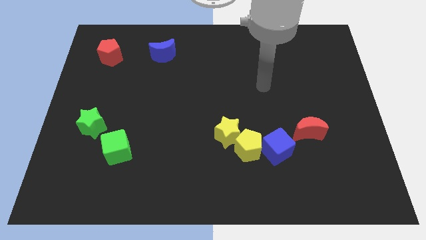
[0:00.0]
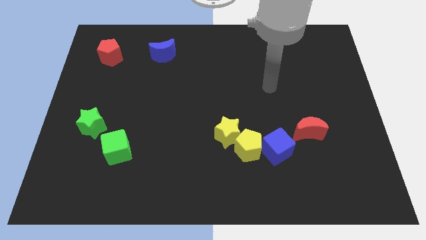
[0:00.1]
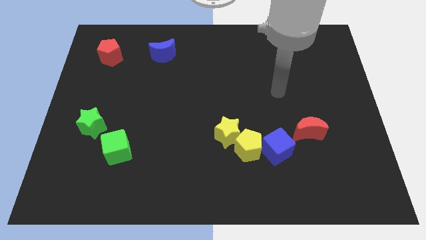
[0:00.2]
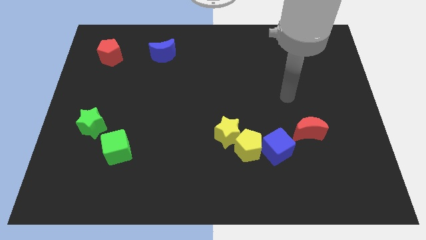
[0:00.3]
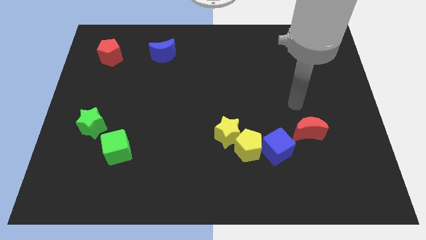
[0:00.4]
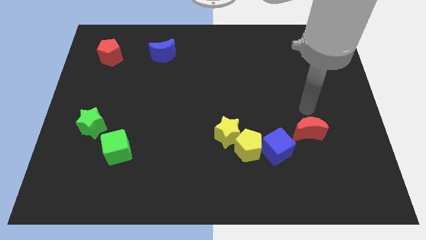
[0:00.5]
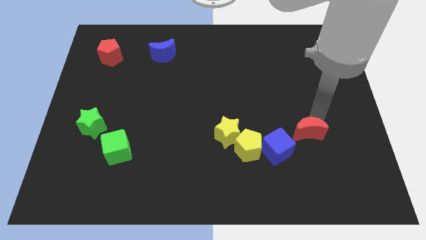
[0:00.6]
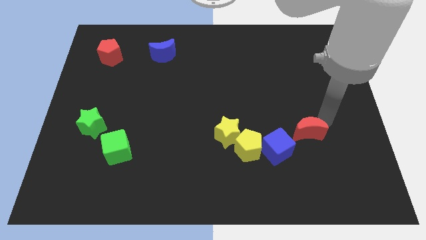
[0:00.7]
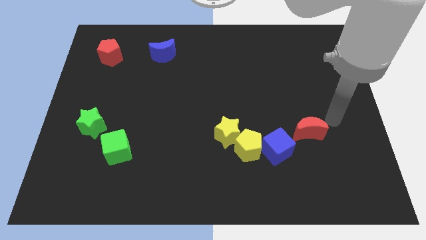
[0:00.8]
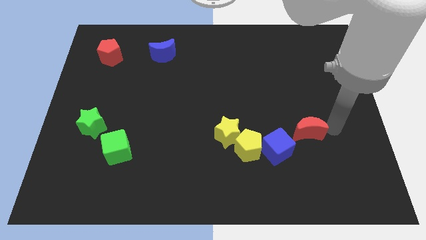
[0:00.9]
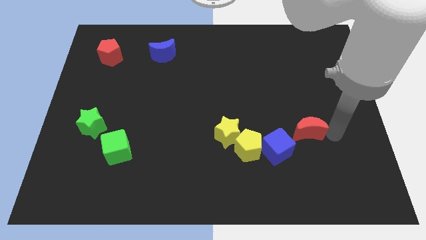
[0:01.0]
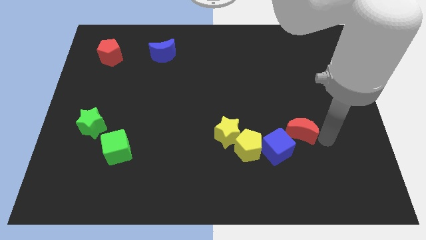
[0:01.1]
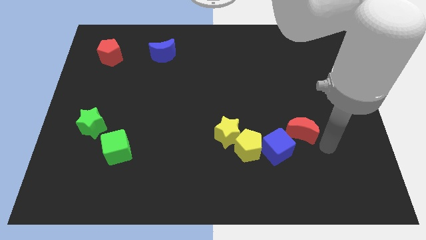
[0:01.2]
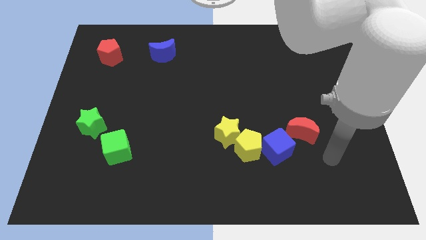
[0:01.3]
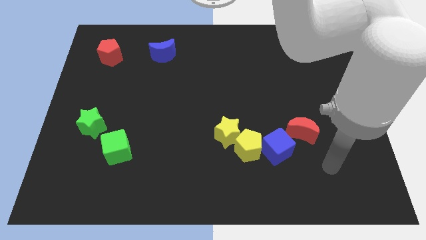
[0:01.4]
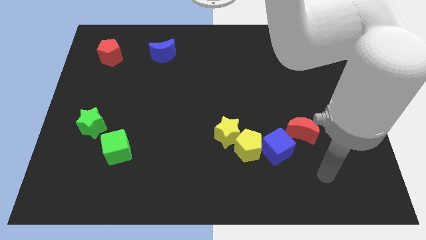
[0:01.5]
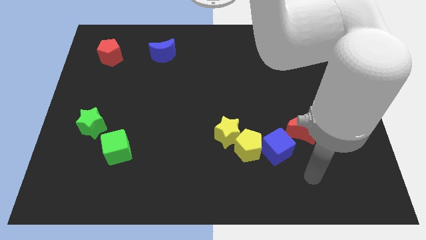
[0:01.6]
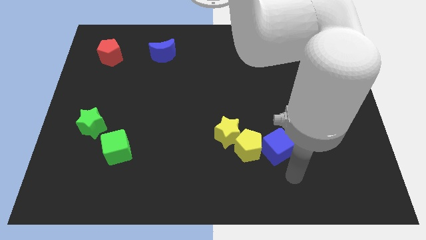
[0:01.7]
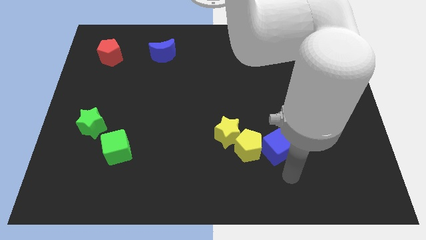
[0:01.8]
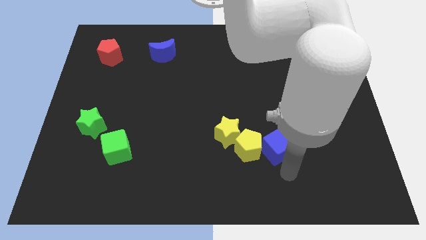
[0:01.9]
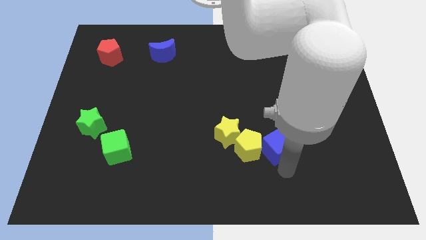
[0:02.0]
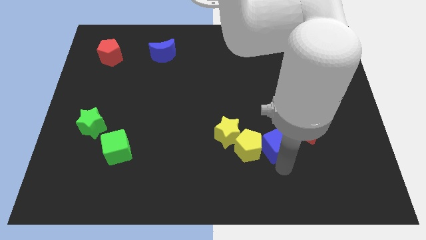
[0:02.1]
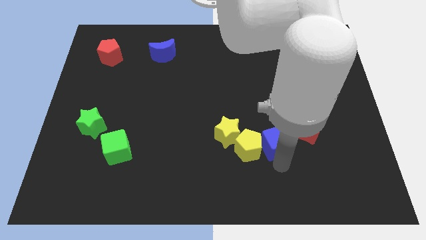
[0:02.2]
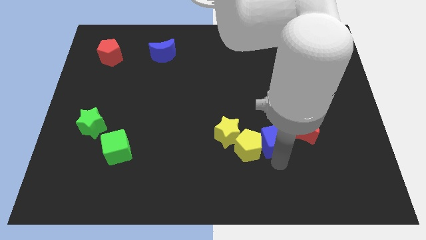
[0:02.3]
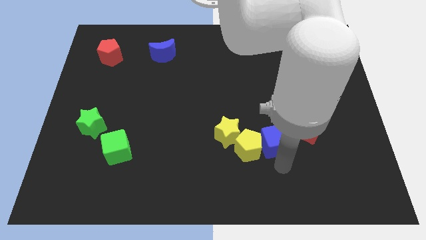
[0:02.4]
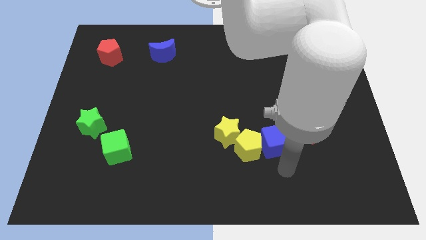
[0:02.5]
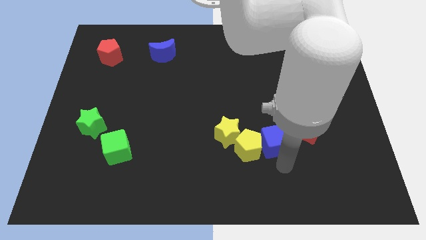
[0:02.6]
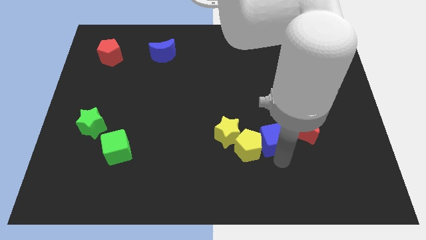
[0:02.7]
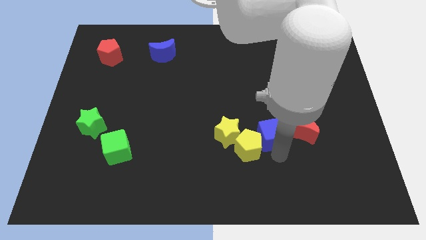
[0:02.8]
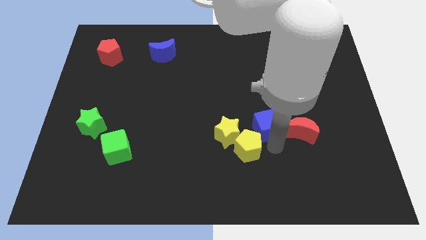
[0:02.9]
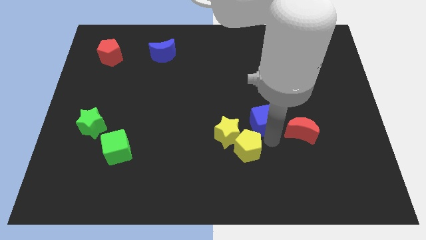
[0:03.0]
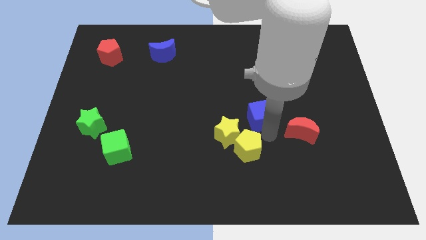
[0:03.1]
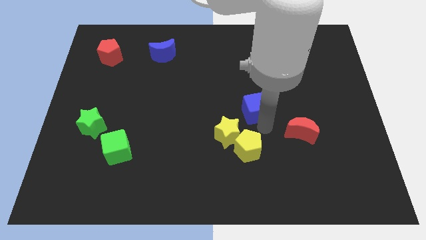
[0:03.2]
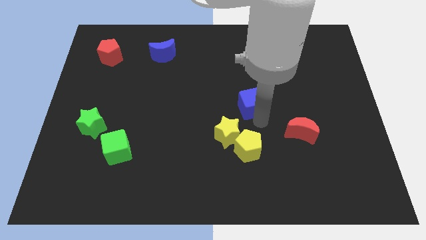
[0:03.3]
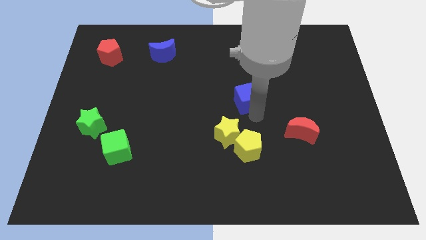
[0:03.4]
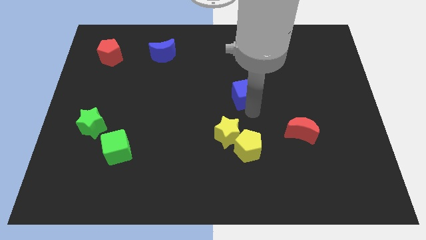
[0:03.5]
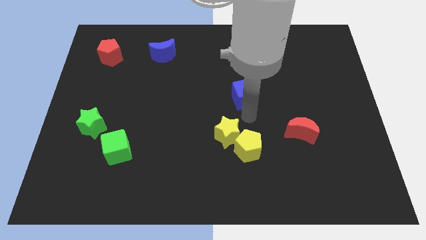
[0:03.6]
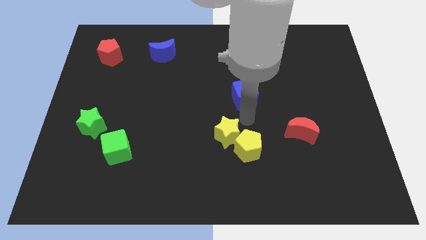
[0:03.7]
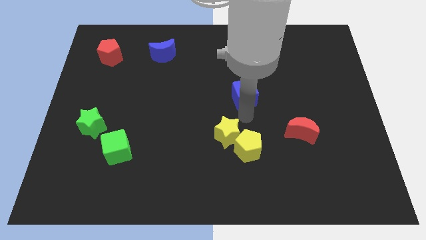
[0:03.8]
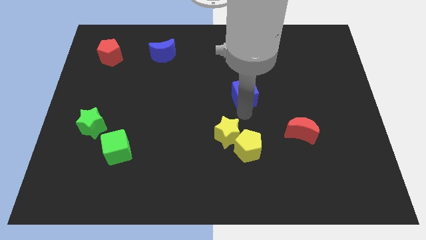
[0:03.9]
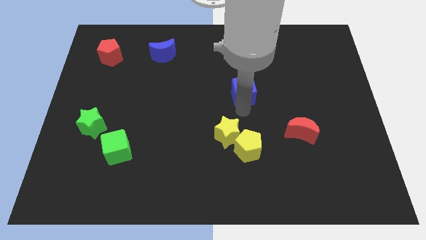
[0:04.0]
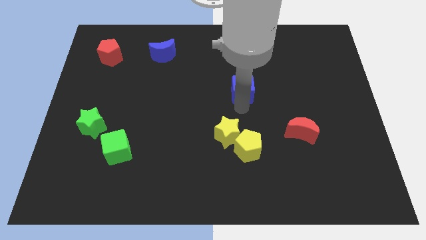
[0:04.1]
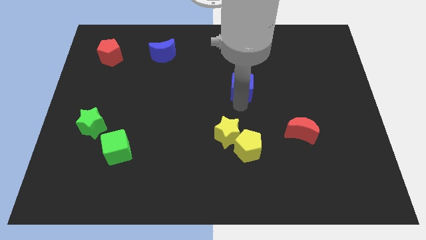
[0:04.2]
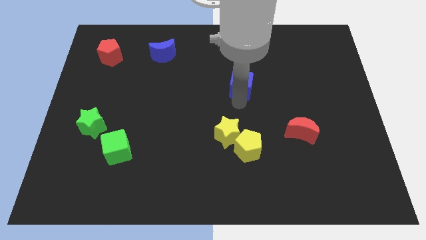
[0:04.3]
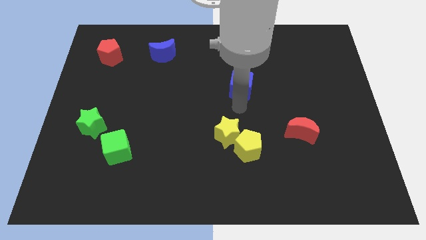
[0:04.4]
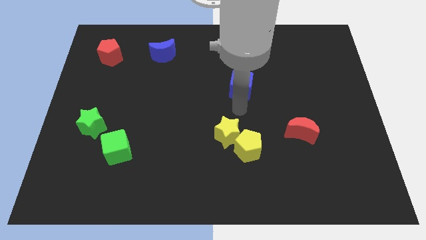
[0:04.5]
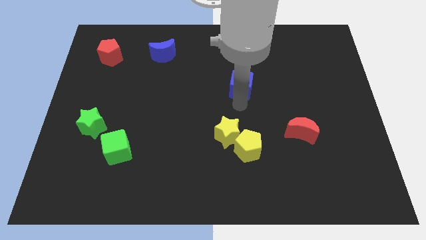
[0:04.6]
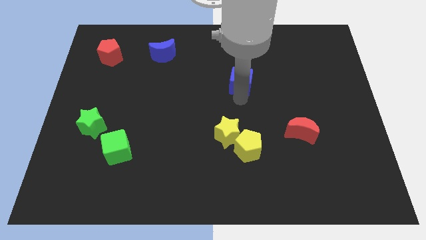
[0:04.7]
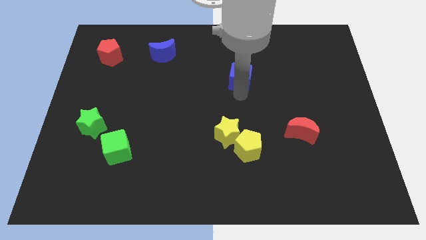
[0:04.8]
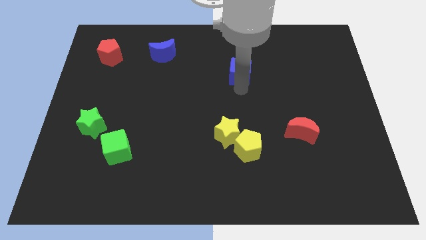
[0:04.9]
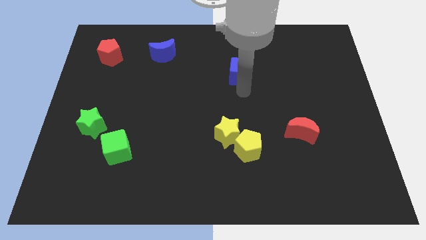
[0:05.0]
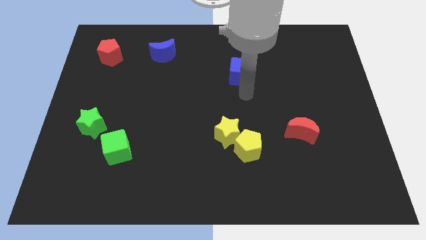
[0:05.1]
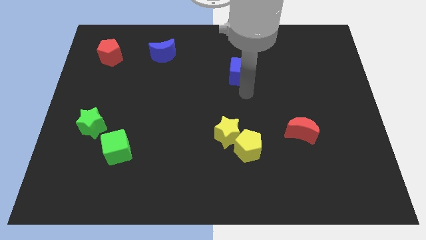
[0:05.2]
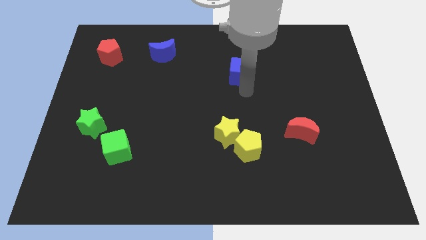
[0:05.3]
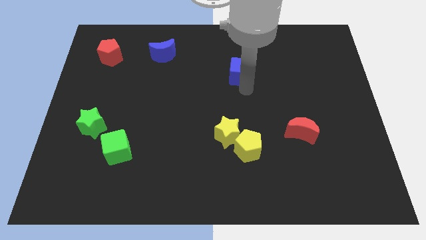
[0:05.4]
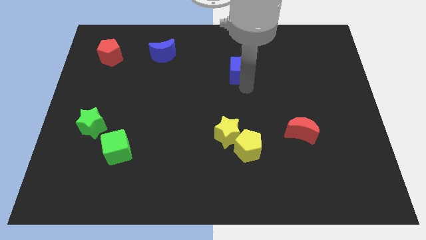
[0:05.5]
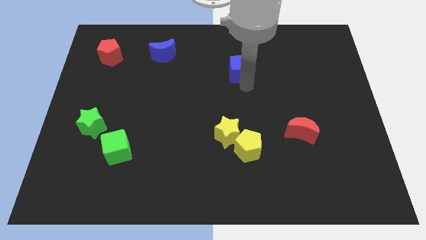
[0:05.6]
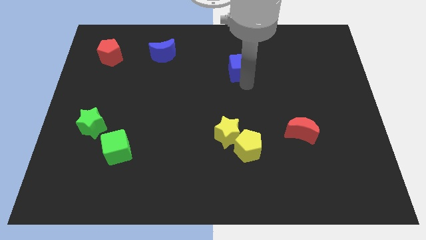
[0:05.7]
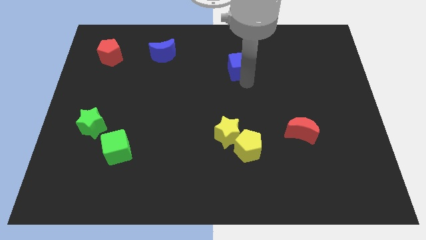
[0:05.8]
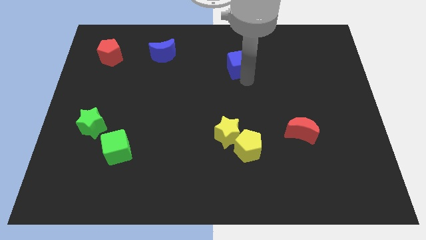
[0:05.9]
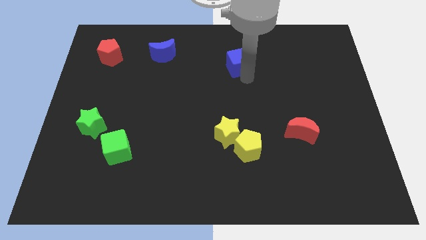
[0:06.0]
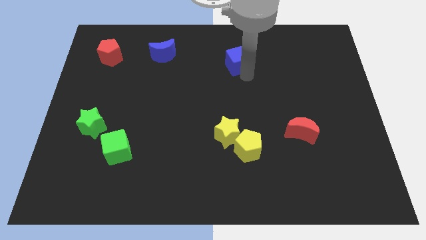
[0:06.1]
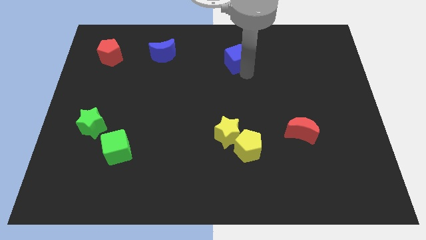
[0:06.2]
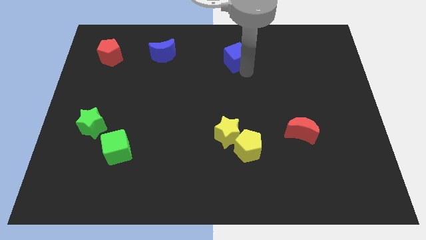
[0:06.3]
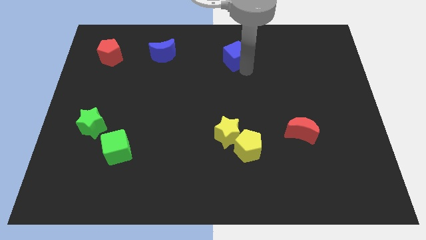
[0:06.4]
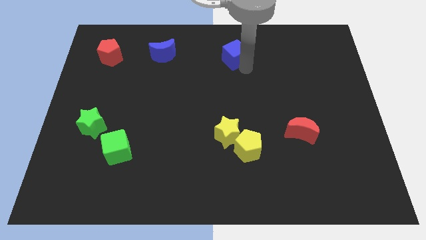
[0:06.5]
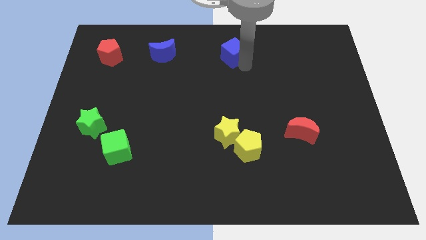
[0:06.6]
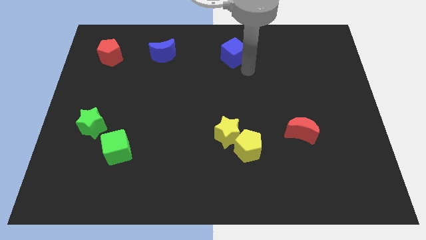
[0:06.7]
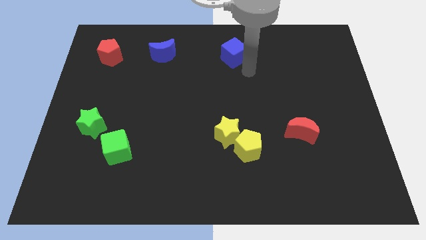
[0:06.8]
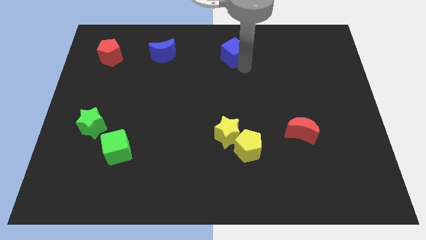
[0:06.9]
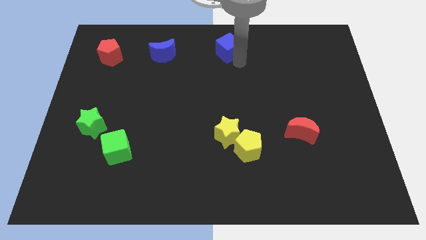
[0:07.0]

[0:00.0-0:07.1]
slide the blue cube to the top side
